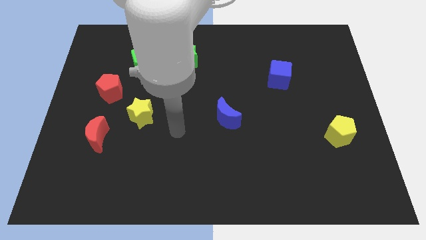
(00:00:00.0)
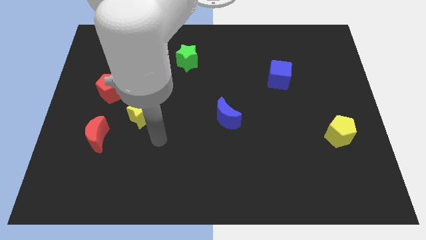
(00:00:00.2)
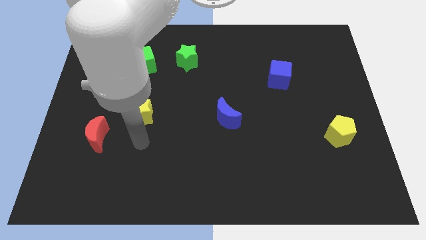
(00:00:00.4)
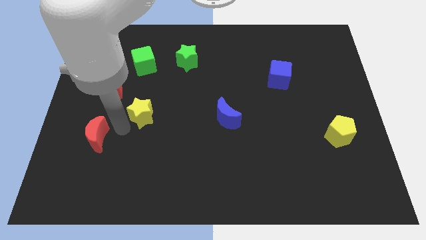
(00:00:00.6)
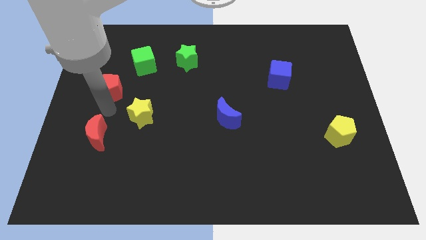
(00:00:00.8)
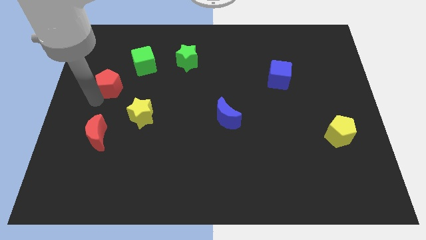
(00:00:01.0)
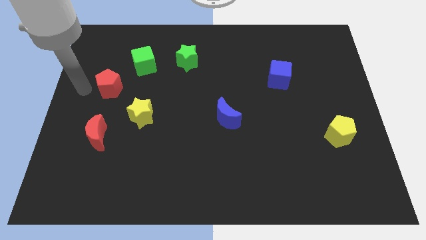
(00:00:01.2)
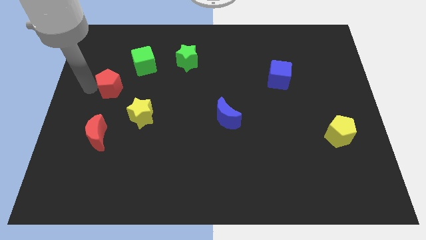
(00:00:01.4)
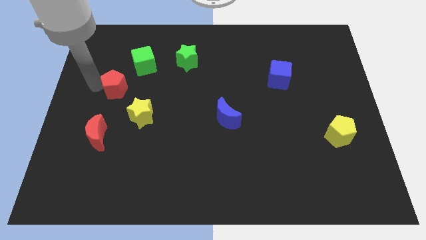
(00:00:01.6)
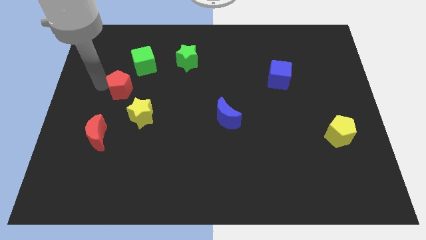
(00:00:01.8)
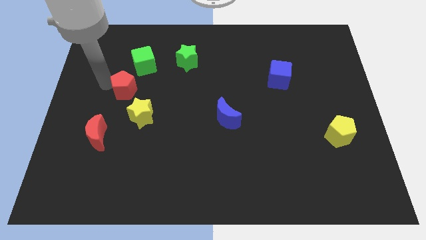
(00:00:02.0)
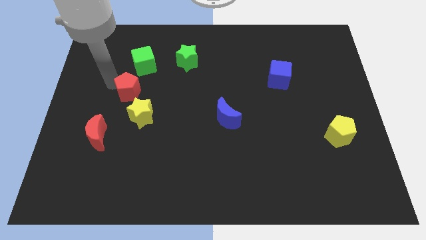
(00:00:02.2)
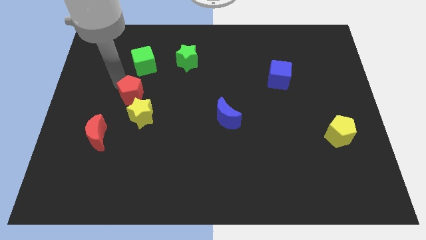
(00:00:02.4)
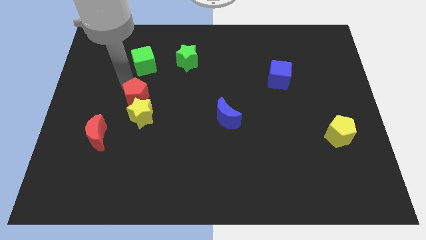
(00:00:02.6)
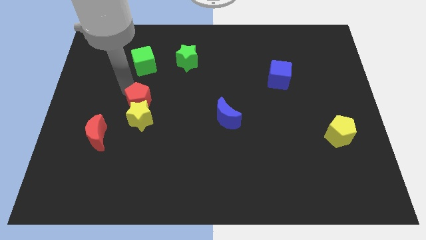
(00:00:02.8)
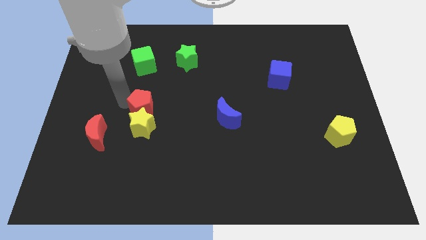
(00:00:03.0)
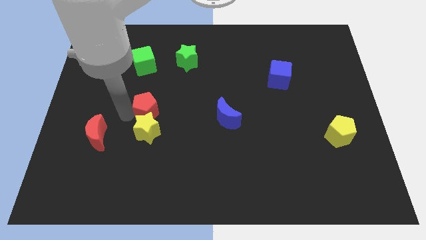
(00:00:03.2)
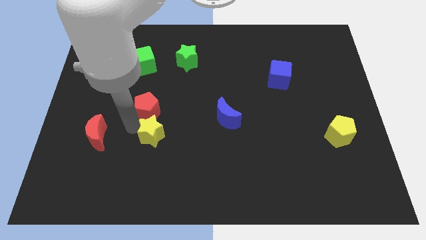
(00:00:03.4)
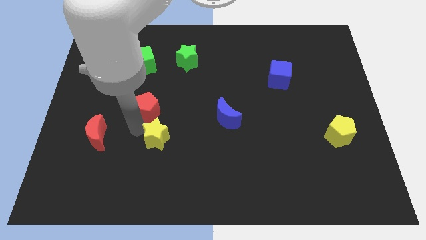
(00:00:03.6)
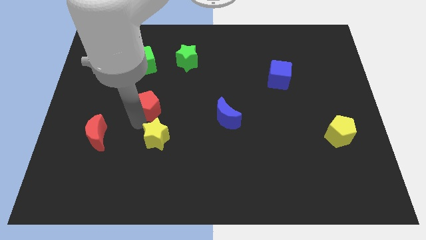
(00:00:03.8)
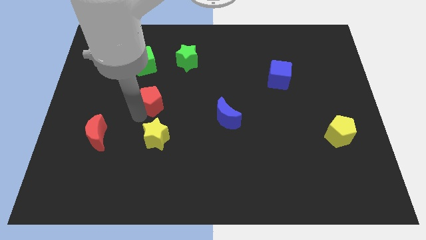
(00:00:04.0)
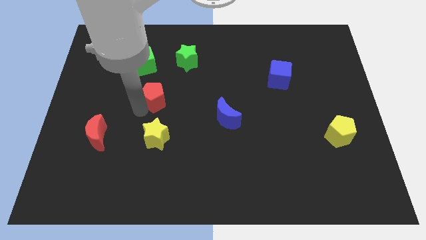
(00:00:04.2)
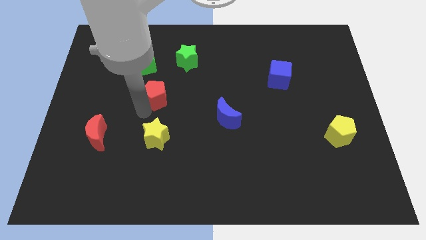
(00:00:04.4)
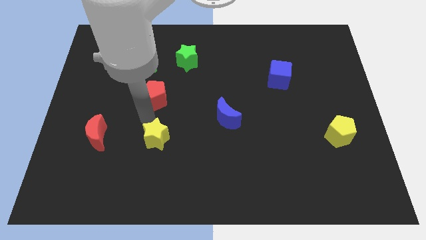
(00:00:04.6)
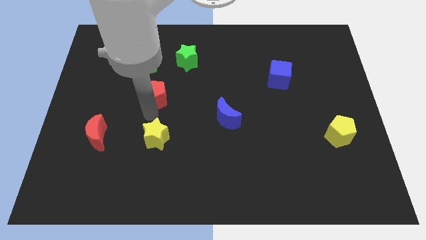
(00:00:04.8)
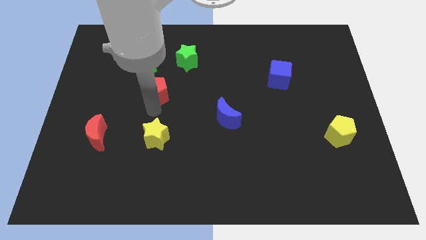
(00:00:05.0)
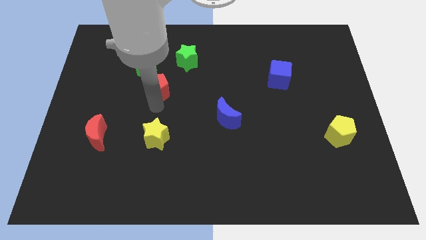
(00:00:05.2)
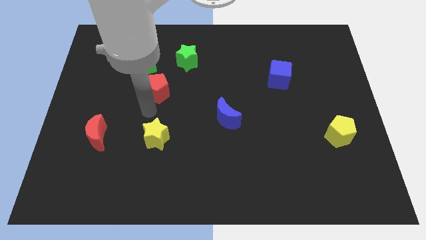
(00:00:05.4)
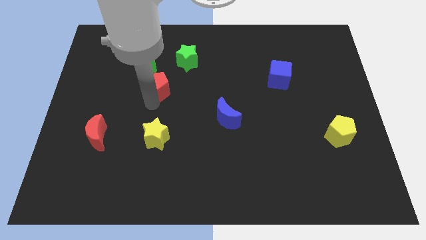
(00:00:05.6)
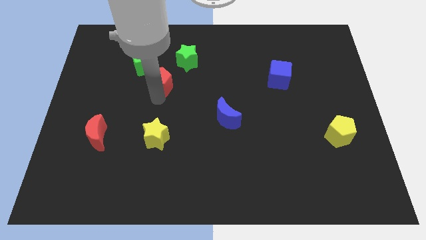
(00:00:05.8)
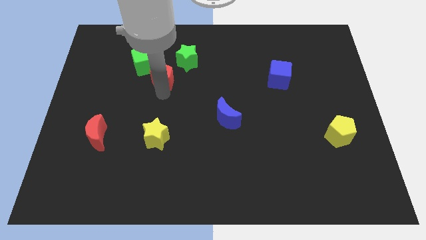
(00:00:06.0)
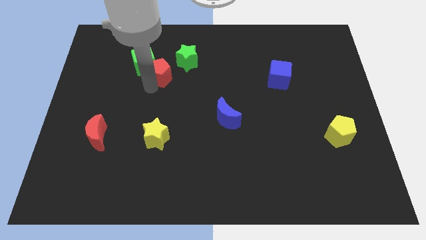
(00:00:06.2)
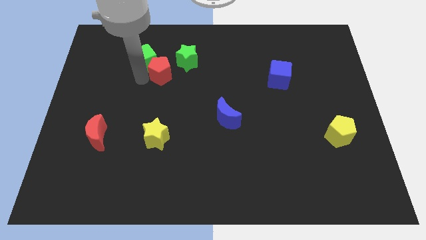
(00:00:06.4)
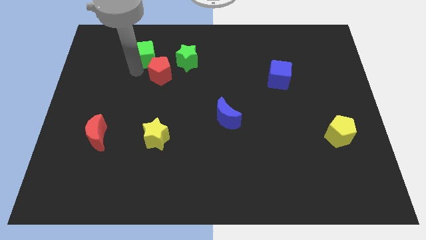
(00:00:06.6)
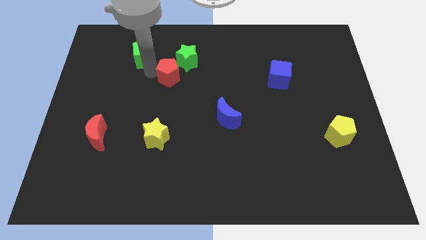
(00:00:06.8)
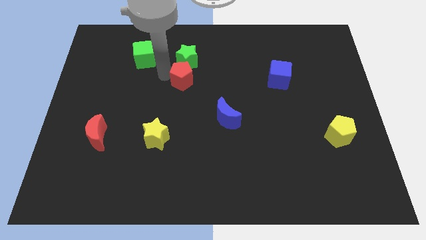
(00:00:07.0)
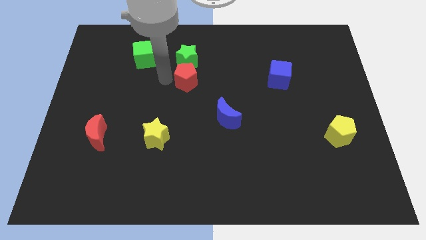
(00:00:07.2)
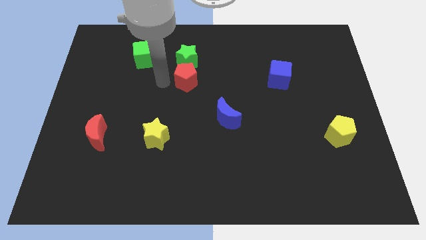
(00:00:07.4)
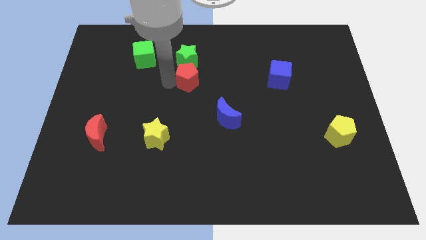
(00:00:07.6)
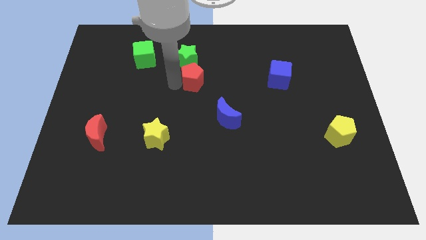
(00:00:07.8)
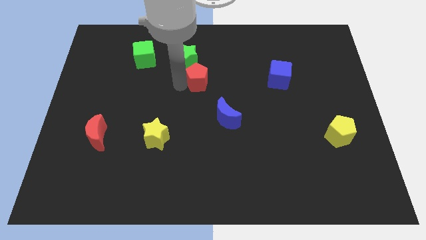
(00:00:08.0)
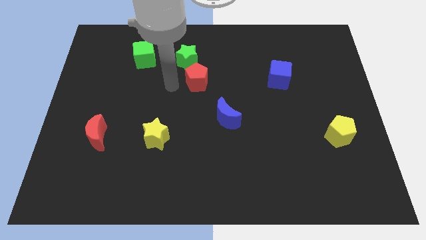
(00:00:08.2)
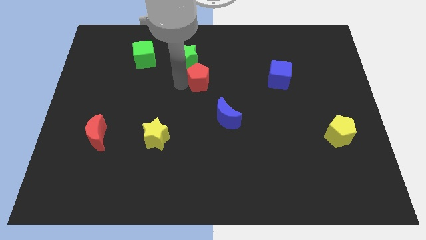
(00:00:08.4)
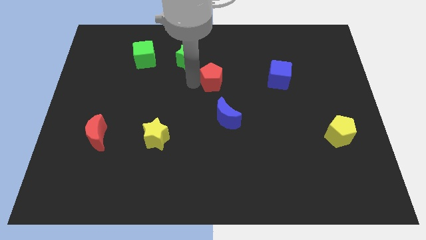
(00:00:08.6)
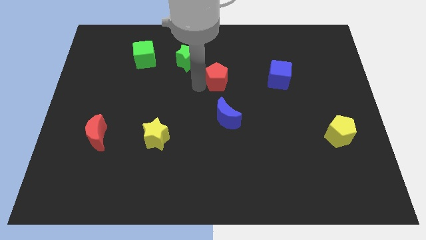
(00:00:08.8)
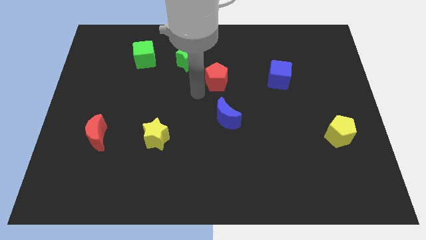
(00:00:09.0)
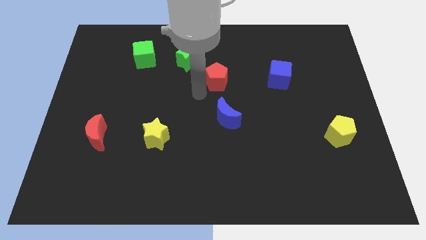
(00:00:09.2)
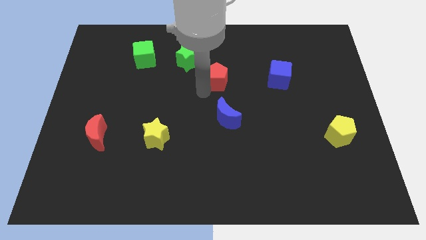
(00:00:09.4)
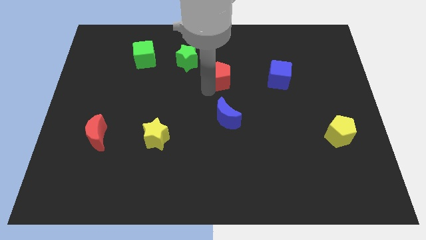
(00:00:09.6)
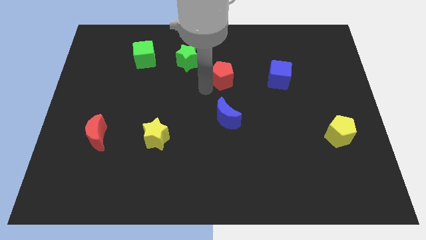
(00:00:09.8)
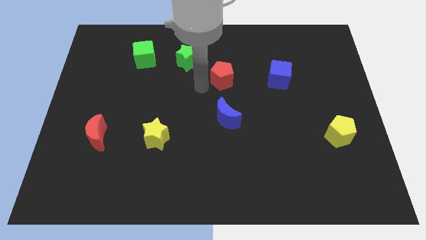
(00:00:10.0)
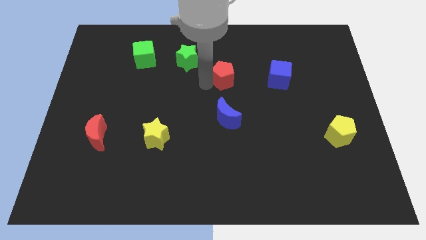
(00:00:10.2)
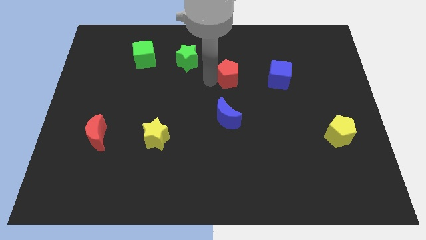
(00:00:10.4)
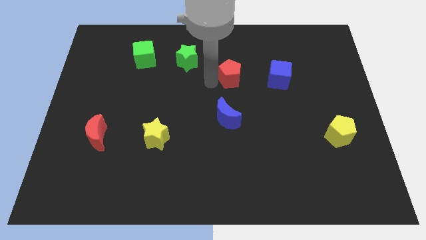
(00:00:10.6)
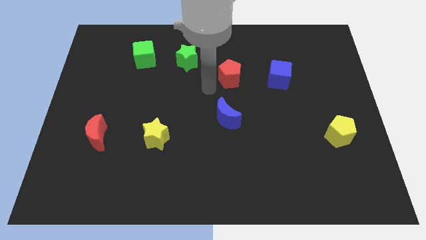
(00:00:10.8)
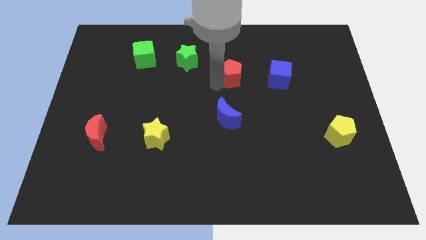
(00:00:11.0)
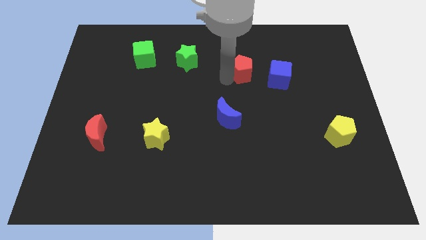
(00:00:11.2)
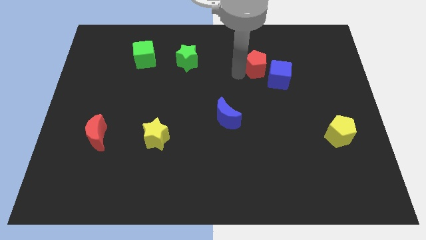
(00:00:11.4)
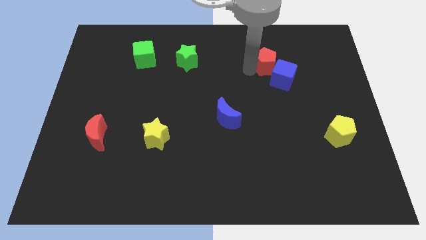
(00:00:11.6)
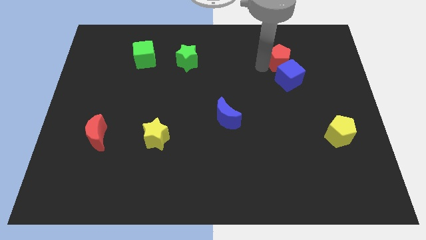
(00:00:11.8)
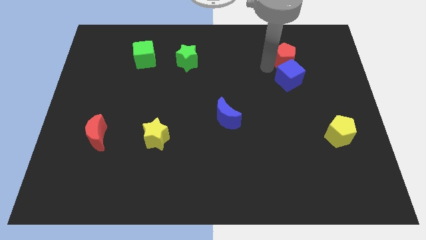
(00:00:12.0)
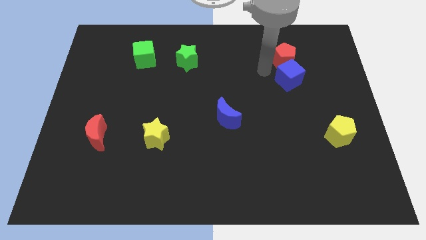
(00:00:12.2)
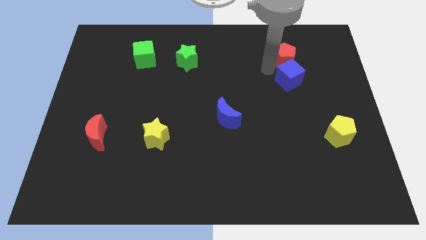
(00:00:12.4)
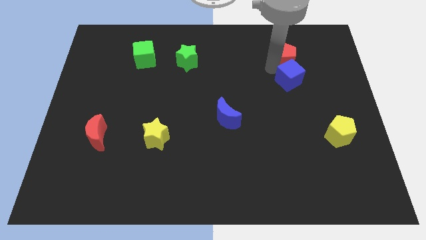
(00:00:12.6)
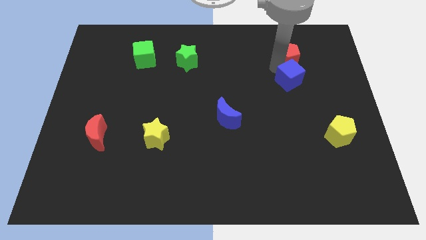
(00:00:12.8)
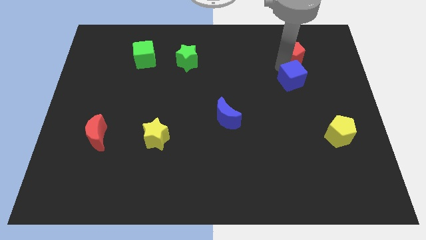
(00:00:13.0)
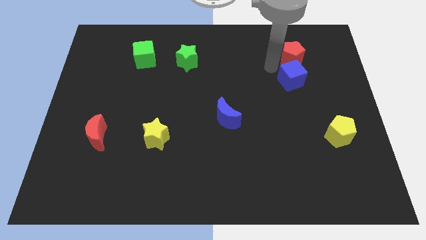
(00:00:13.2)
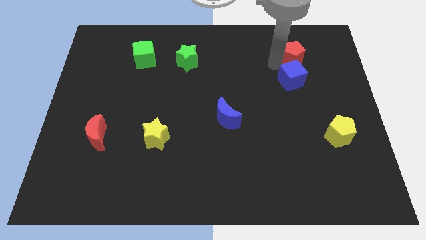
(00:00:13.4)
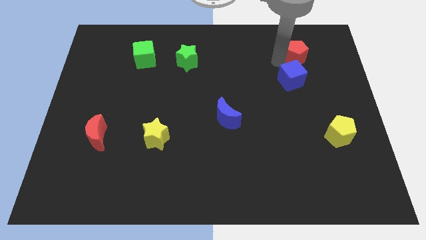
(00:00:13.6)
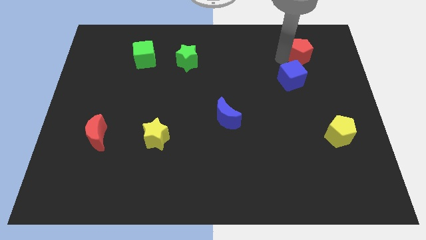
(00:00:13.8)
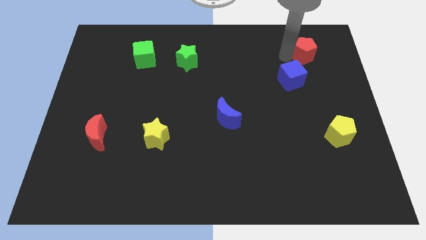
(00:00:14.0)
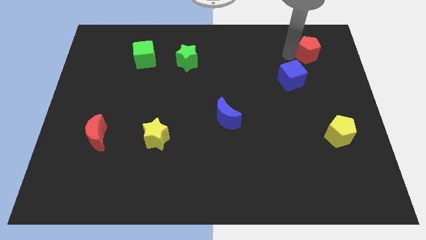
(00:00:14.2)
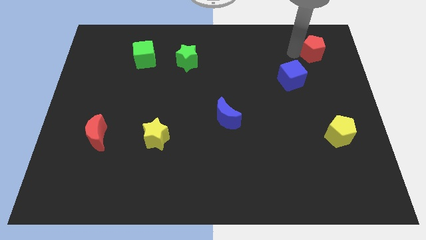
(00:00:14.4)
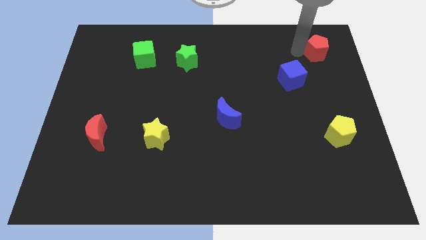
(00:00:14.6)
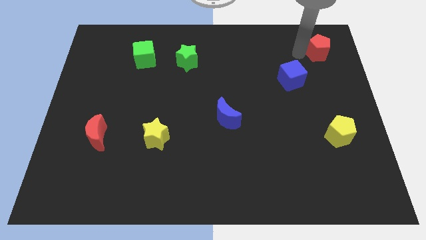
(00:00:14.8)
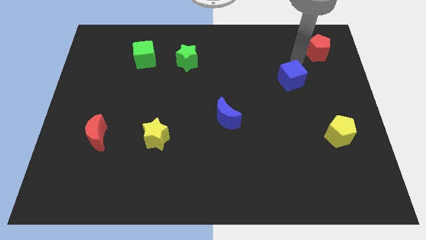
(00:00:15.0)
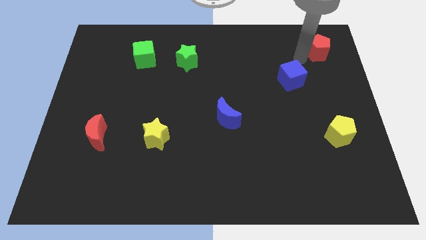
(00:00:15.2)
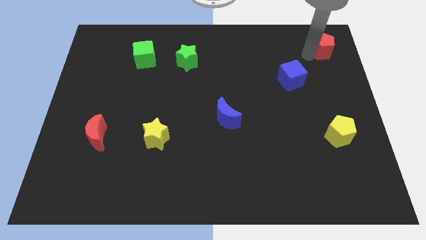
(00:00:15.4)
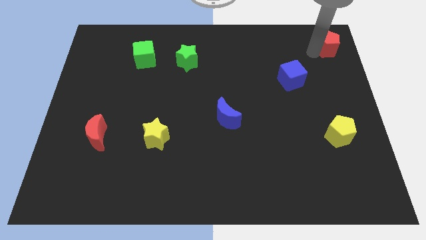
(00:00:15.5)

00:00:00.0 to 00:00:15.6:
push the red pentagon to the top right
